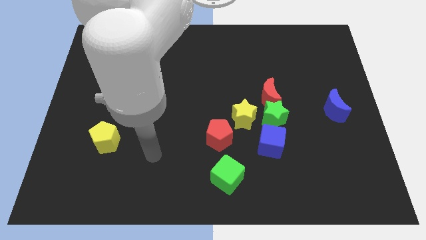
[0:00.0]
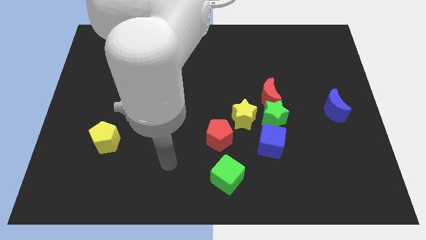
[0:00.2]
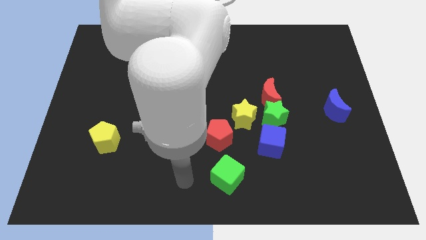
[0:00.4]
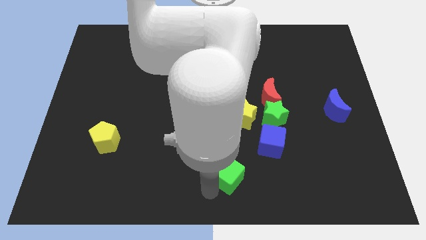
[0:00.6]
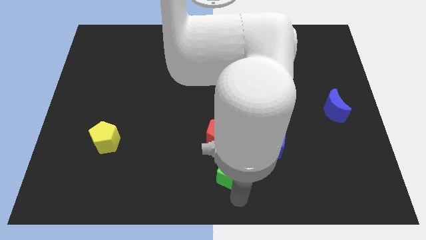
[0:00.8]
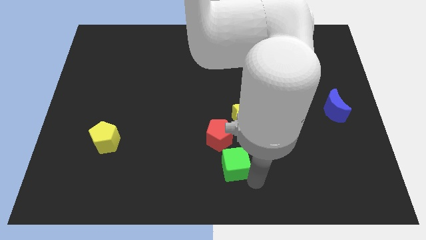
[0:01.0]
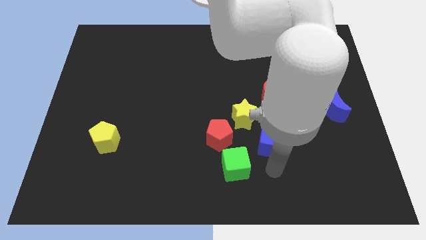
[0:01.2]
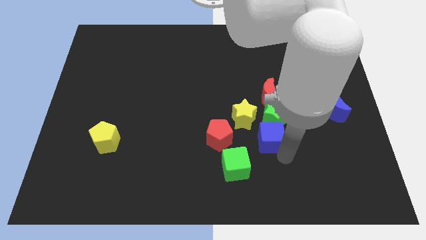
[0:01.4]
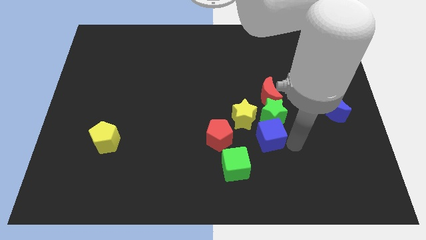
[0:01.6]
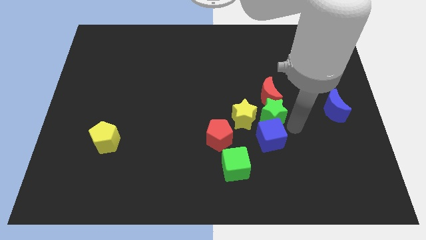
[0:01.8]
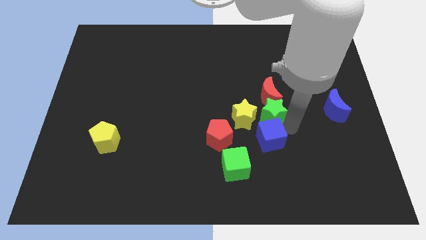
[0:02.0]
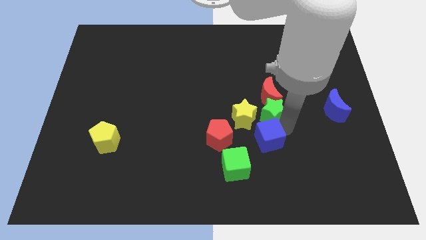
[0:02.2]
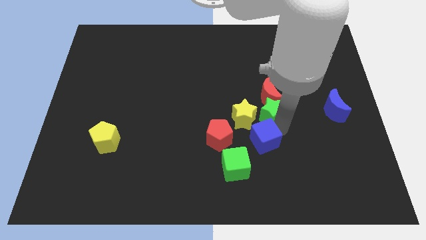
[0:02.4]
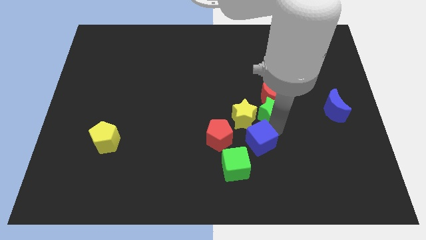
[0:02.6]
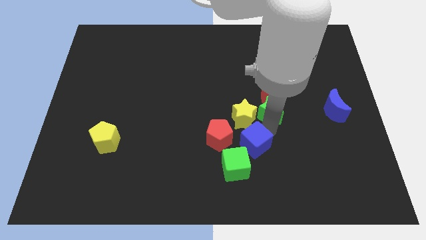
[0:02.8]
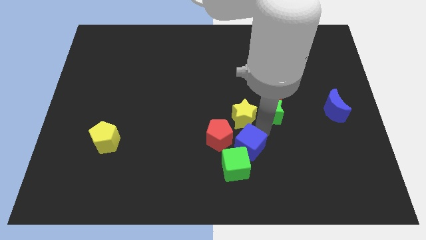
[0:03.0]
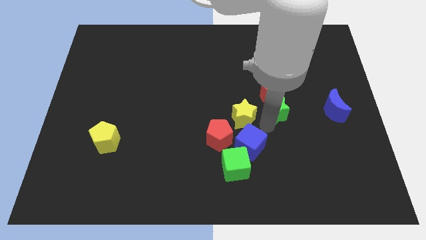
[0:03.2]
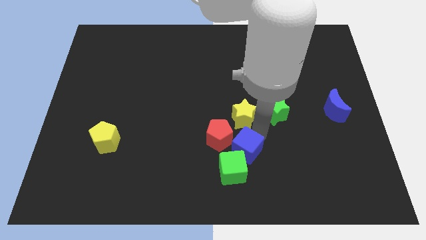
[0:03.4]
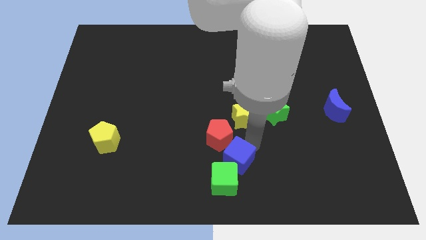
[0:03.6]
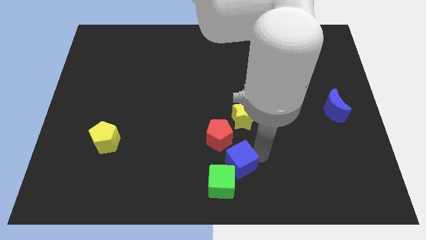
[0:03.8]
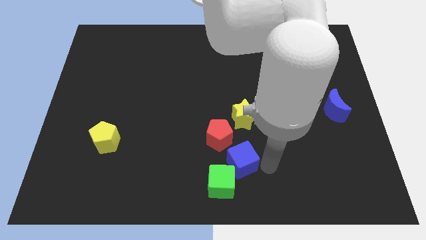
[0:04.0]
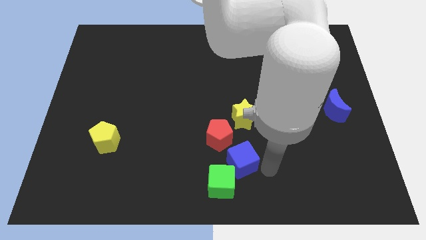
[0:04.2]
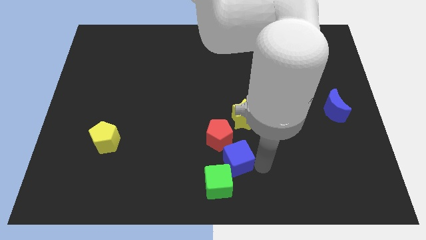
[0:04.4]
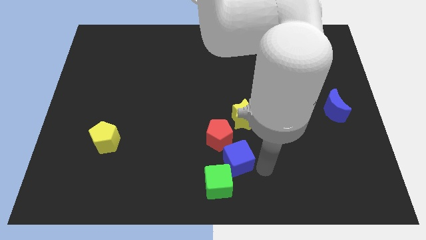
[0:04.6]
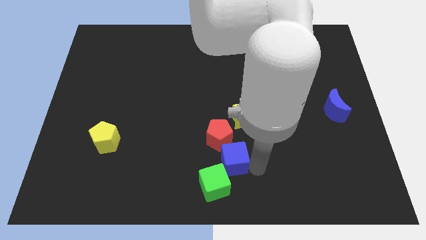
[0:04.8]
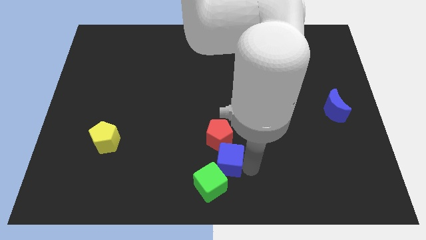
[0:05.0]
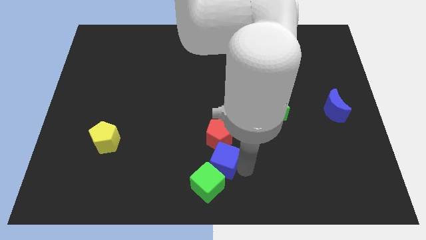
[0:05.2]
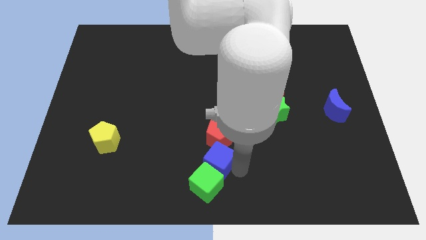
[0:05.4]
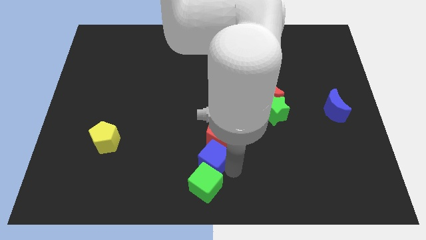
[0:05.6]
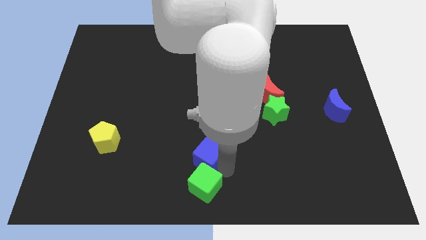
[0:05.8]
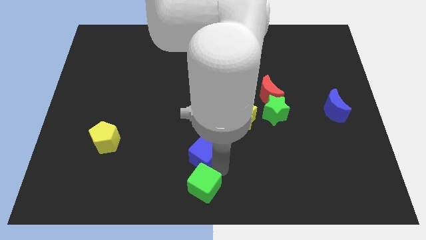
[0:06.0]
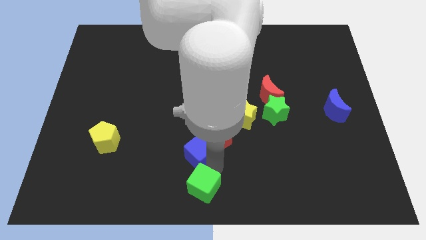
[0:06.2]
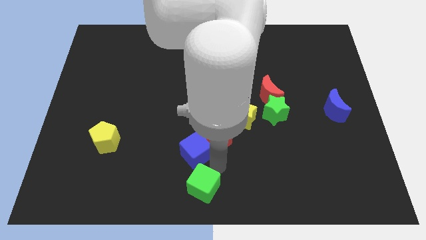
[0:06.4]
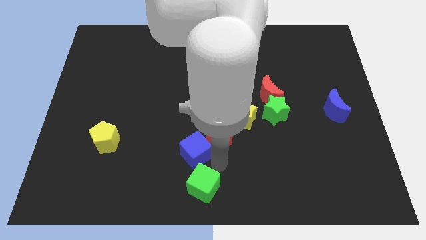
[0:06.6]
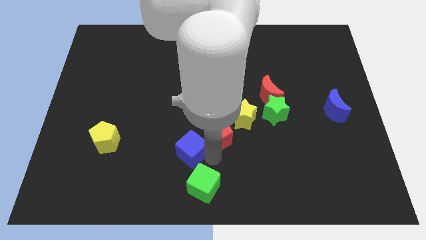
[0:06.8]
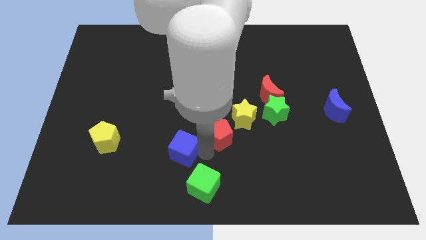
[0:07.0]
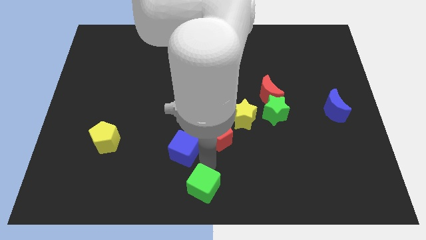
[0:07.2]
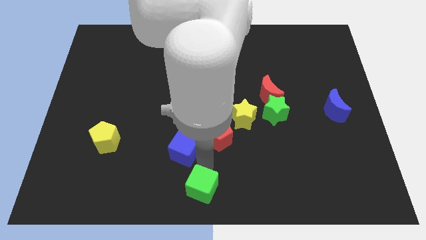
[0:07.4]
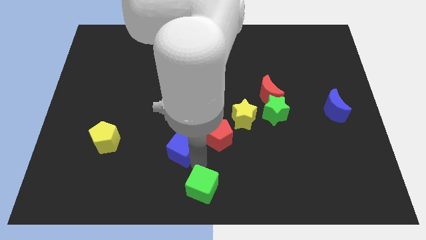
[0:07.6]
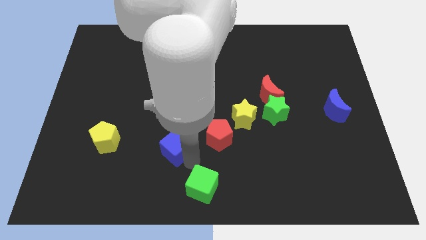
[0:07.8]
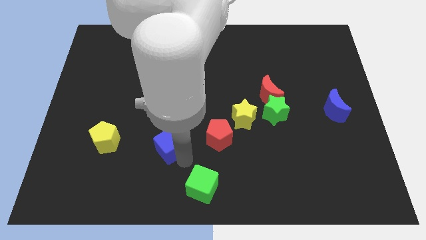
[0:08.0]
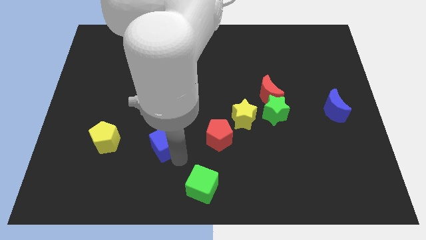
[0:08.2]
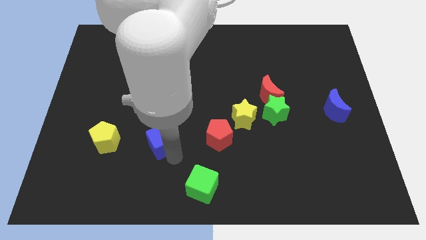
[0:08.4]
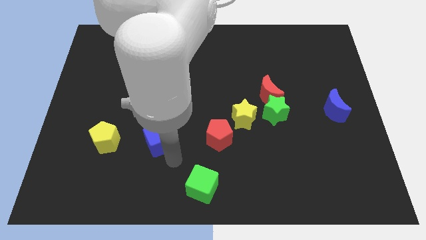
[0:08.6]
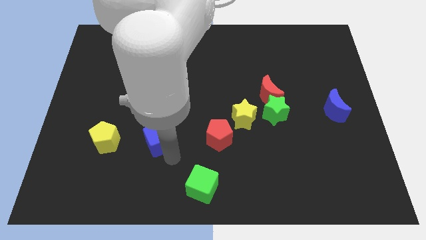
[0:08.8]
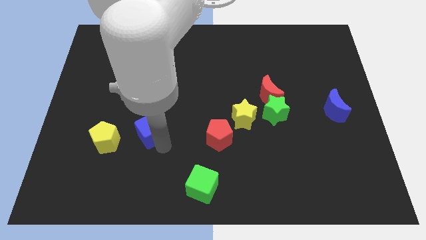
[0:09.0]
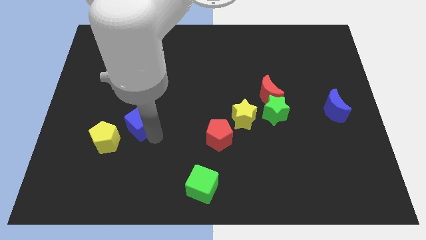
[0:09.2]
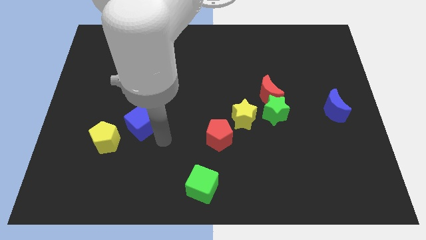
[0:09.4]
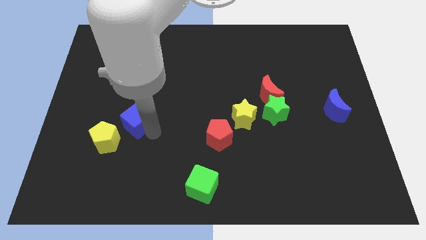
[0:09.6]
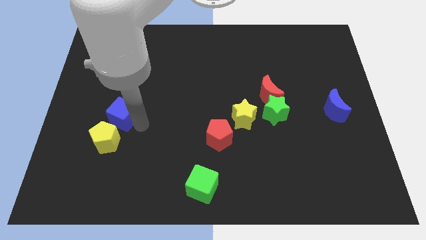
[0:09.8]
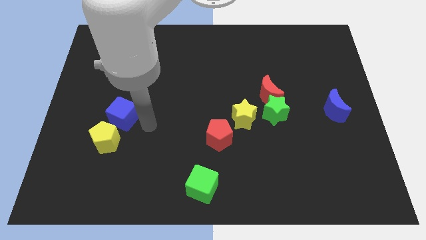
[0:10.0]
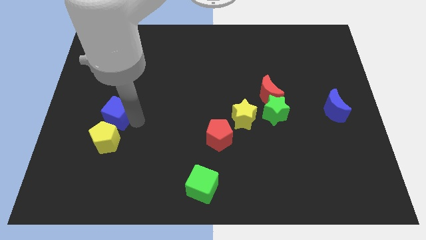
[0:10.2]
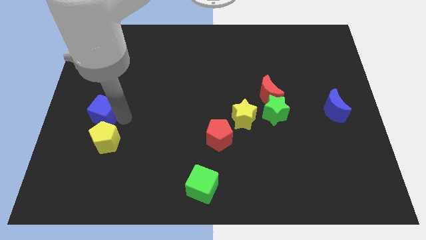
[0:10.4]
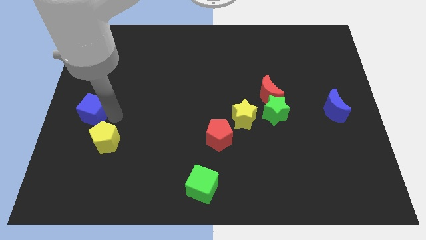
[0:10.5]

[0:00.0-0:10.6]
put the blue cube to the center left

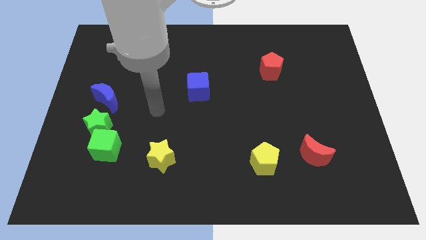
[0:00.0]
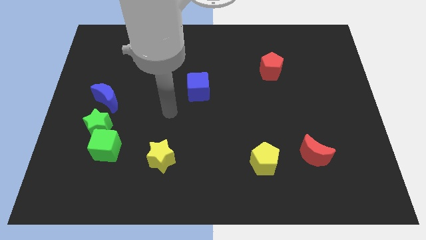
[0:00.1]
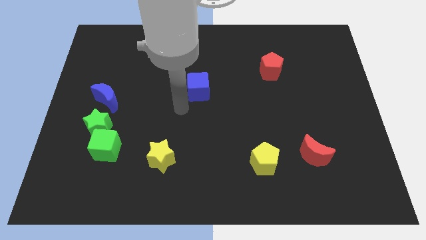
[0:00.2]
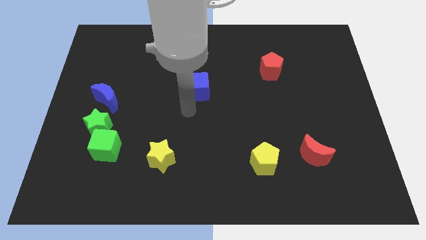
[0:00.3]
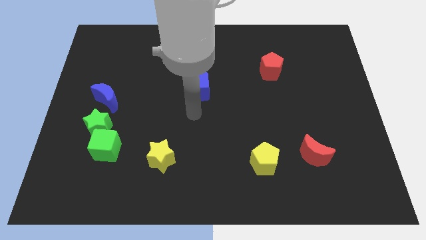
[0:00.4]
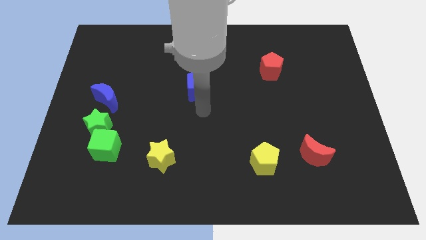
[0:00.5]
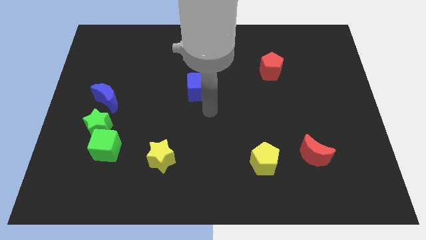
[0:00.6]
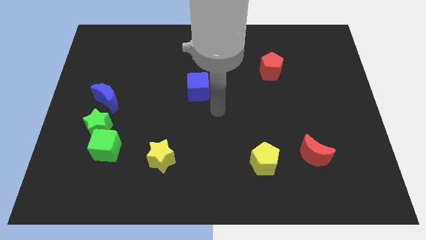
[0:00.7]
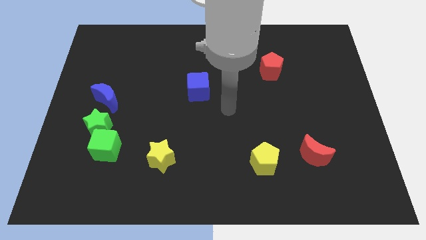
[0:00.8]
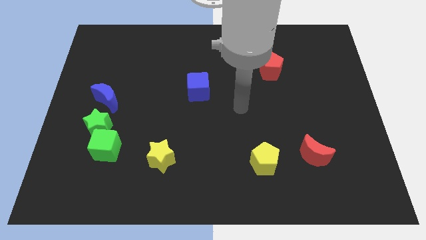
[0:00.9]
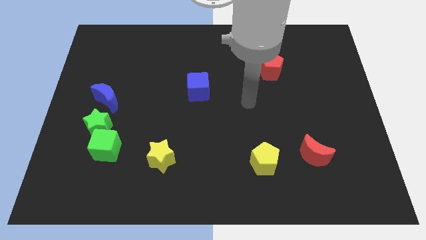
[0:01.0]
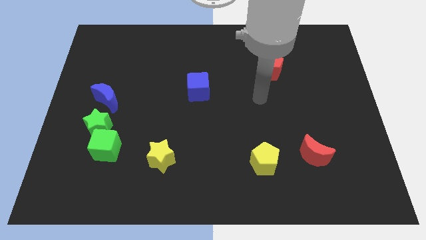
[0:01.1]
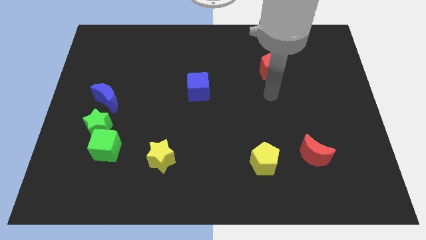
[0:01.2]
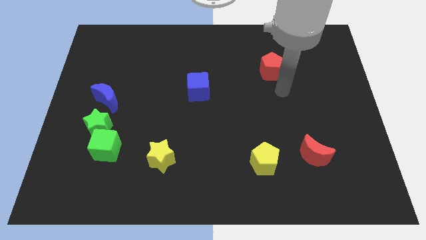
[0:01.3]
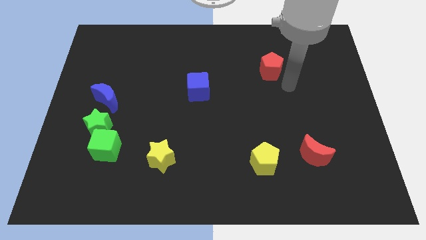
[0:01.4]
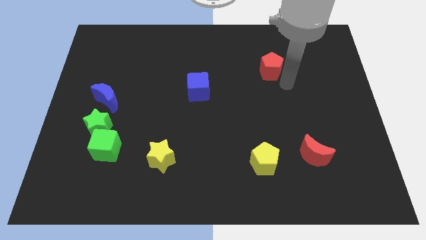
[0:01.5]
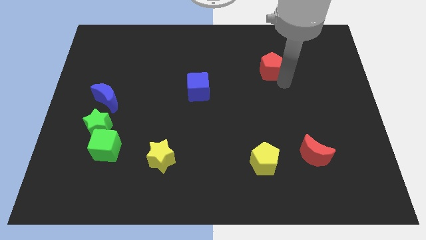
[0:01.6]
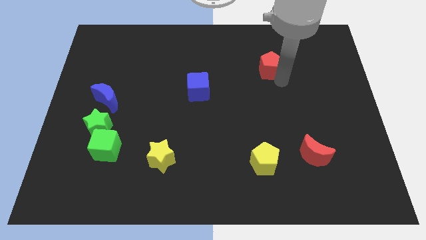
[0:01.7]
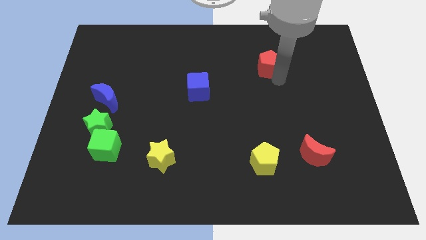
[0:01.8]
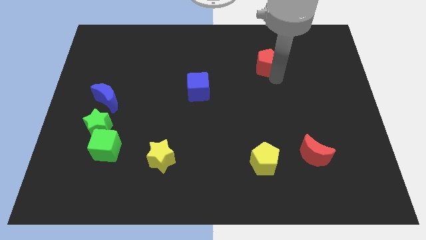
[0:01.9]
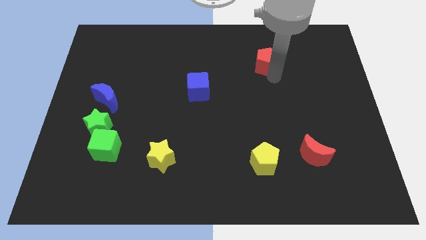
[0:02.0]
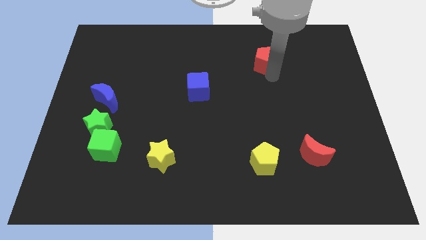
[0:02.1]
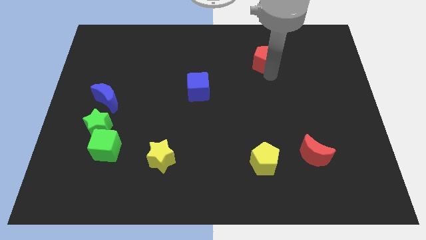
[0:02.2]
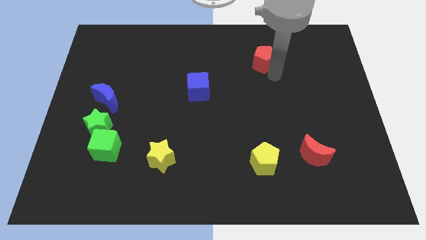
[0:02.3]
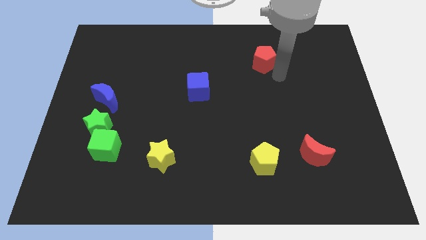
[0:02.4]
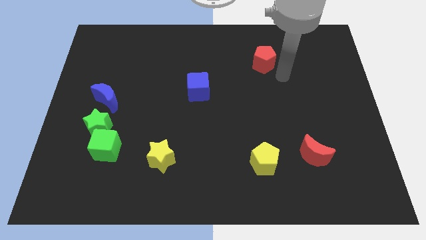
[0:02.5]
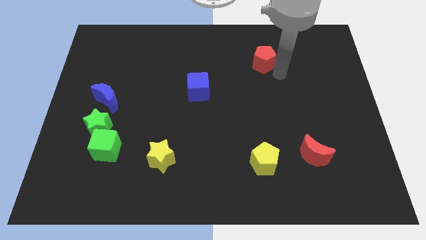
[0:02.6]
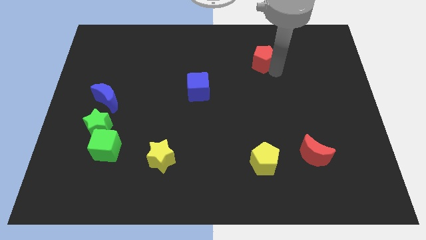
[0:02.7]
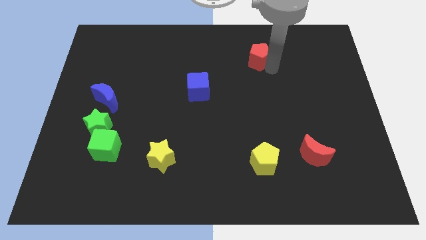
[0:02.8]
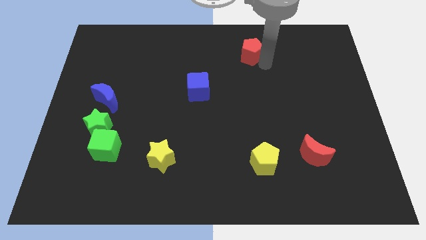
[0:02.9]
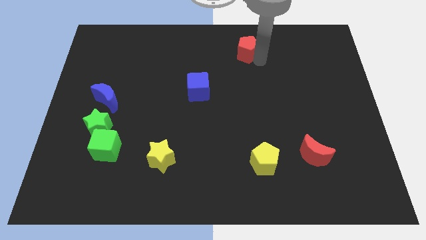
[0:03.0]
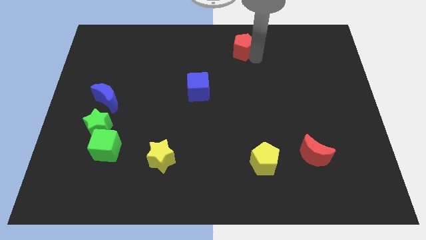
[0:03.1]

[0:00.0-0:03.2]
move the red pentagon to the towards your base
